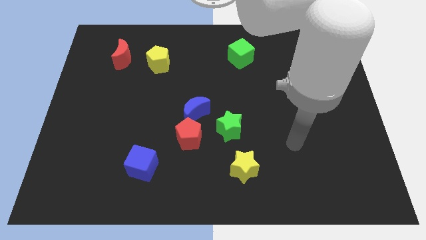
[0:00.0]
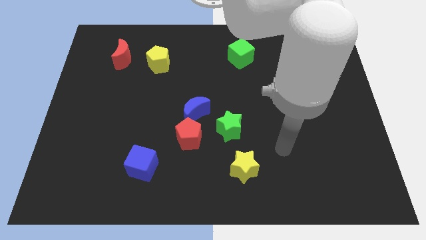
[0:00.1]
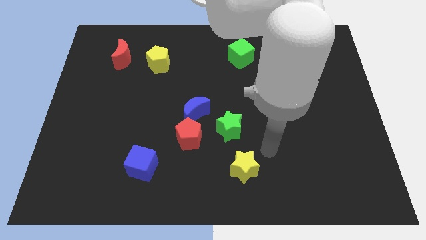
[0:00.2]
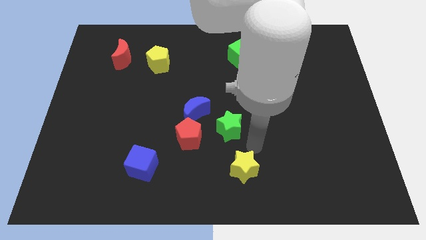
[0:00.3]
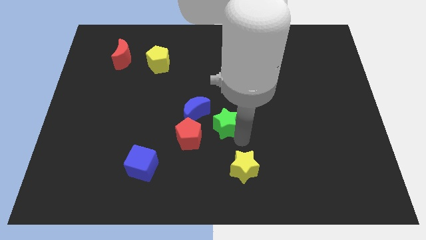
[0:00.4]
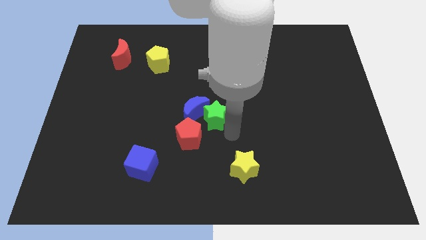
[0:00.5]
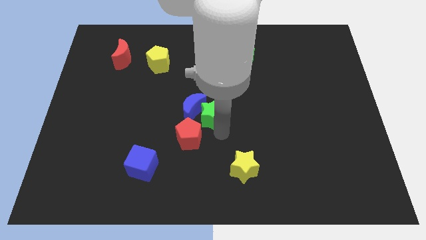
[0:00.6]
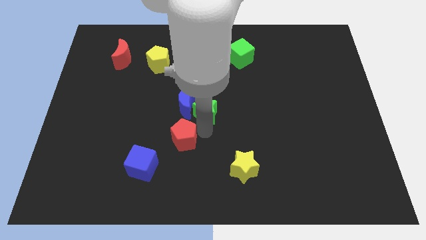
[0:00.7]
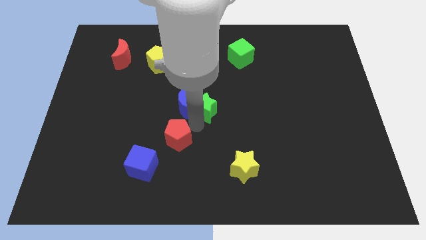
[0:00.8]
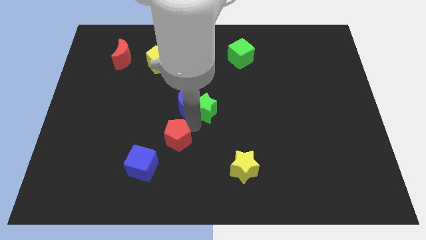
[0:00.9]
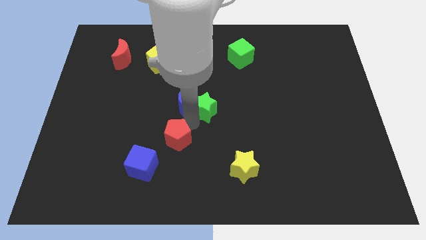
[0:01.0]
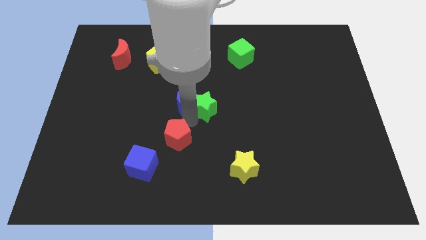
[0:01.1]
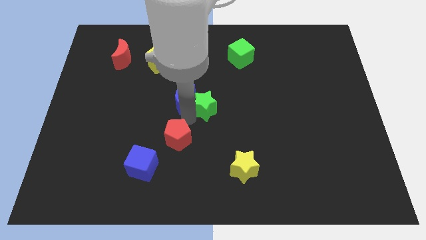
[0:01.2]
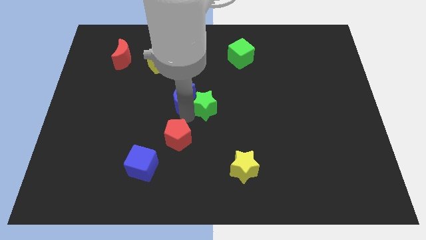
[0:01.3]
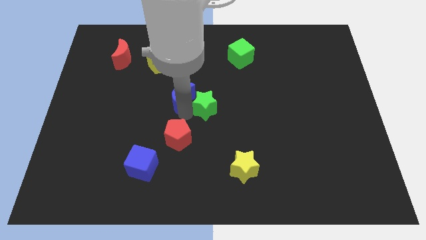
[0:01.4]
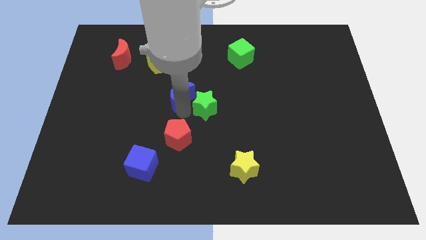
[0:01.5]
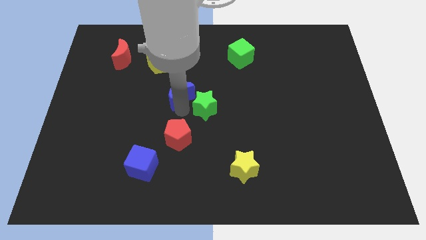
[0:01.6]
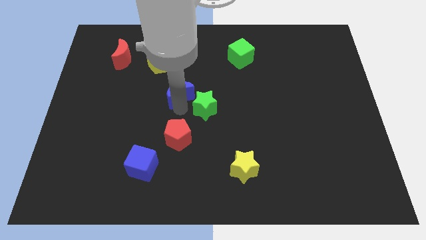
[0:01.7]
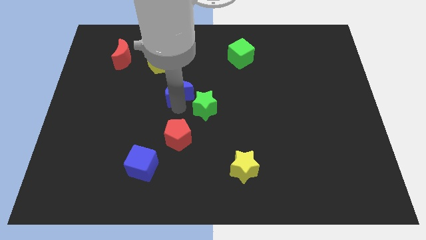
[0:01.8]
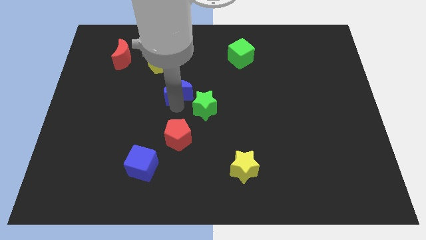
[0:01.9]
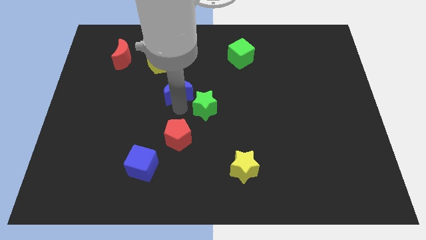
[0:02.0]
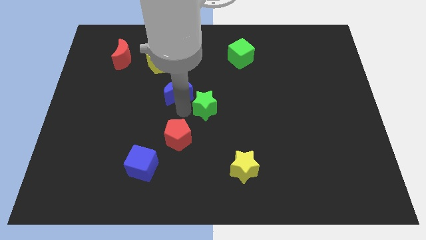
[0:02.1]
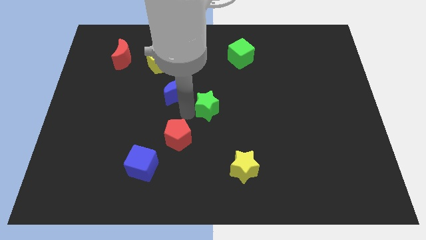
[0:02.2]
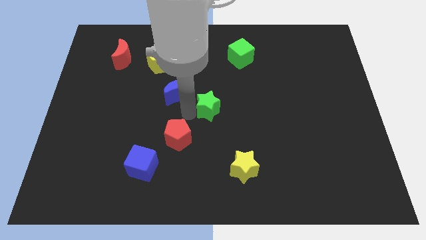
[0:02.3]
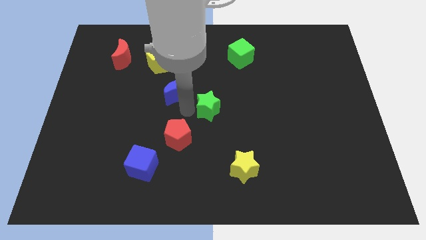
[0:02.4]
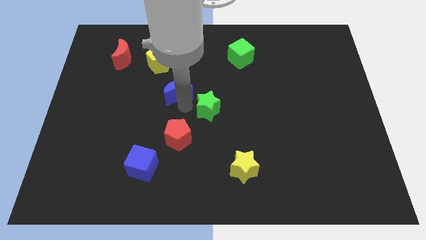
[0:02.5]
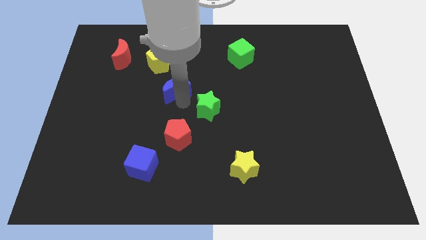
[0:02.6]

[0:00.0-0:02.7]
separate the blue moon from the red pentagon and green star

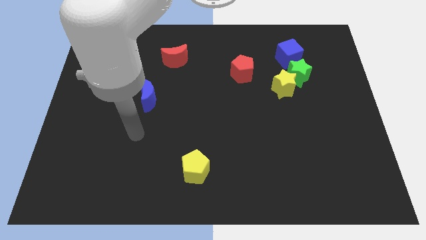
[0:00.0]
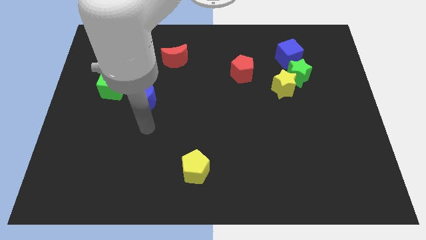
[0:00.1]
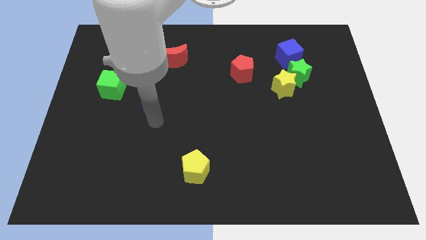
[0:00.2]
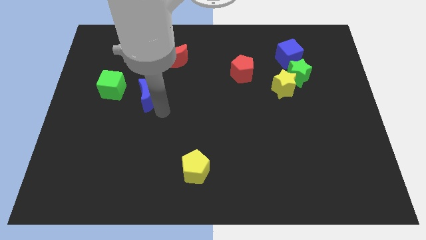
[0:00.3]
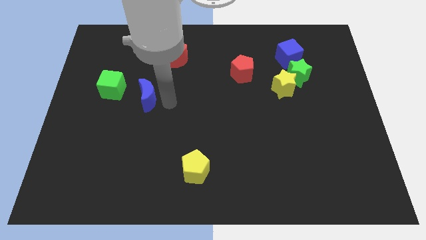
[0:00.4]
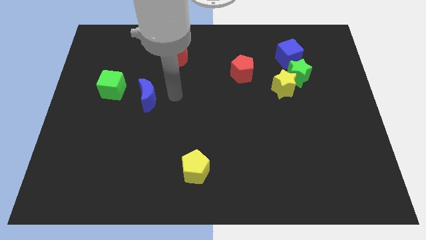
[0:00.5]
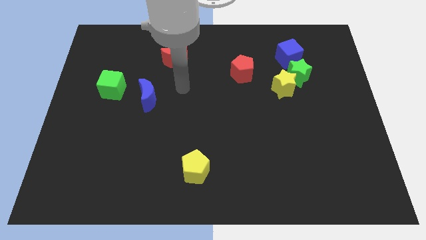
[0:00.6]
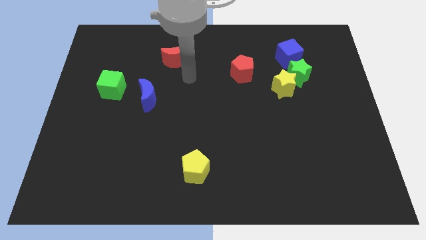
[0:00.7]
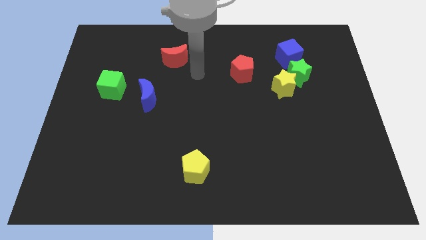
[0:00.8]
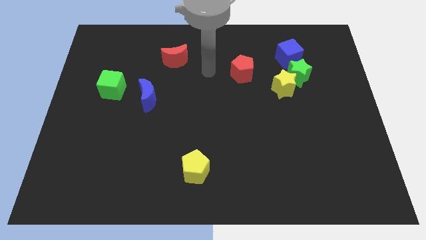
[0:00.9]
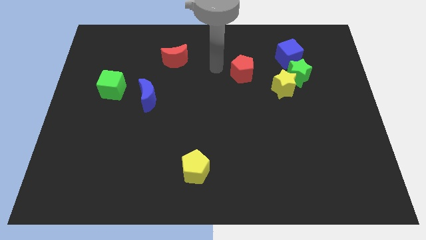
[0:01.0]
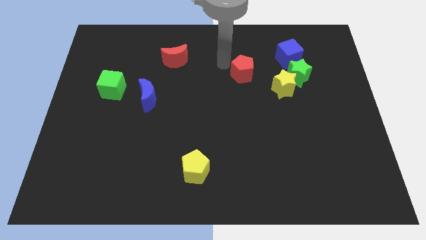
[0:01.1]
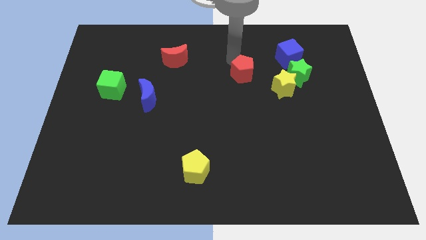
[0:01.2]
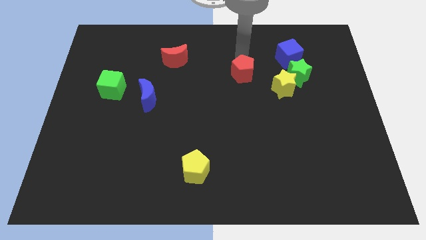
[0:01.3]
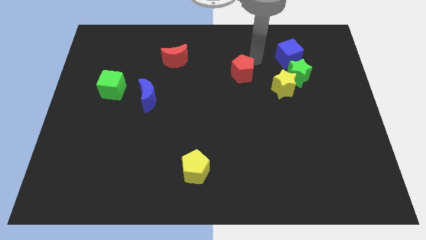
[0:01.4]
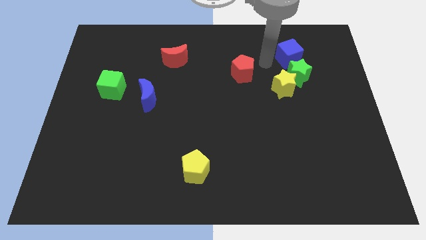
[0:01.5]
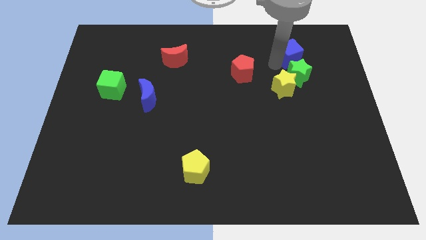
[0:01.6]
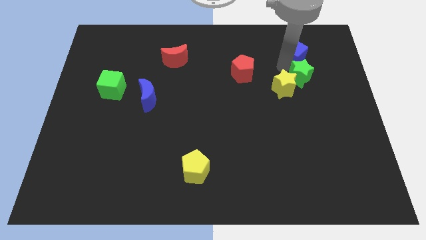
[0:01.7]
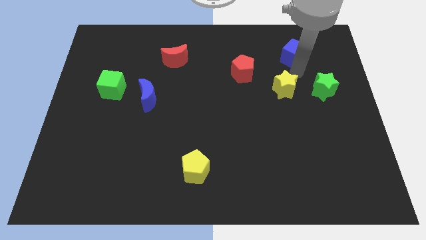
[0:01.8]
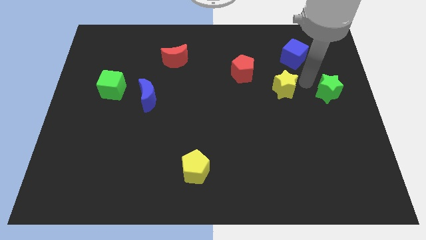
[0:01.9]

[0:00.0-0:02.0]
pull the yellow star apart from the green star

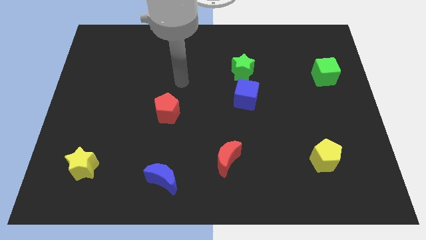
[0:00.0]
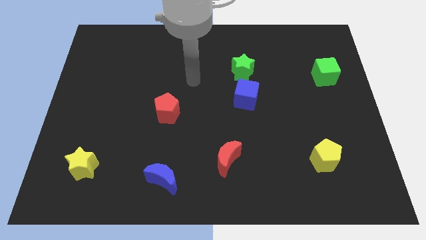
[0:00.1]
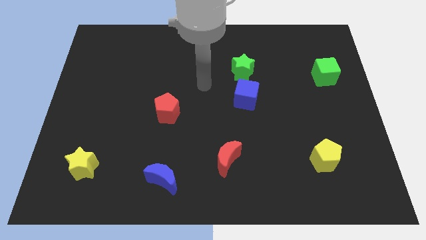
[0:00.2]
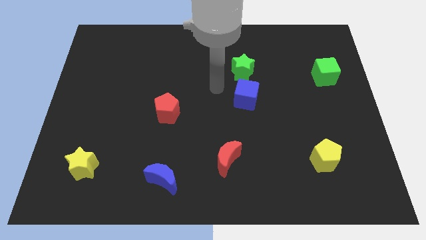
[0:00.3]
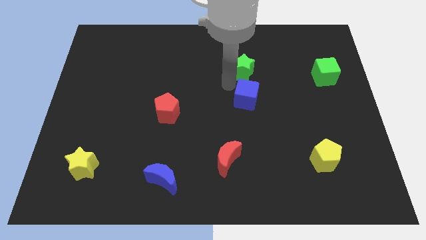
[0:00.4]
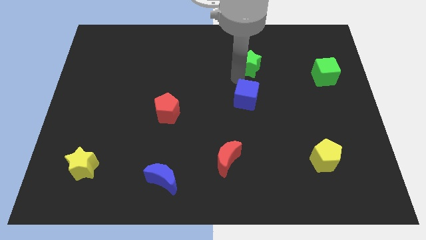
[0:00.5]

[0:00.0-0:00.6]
separate the blue cube from the green star

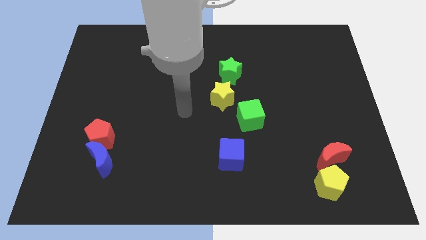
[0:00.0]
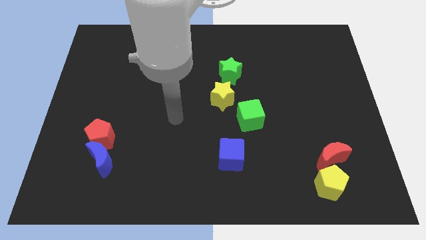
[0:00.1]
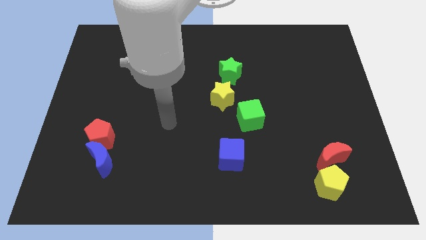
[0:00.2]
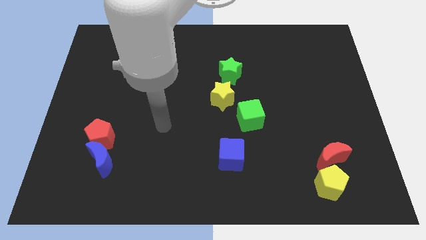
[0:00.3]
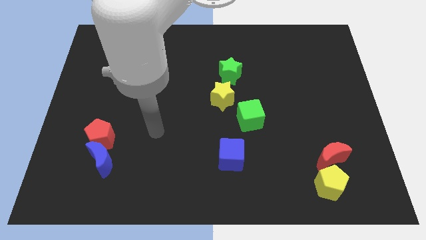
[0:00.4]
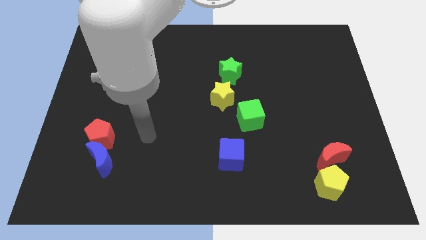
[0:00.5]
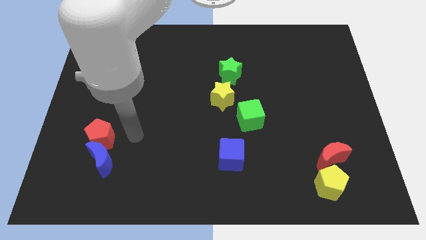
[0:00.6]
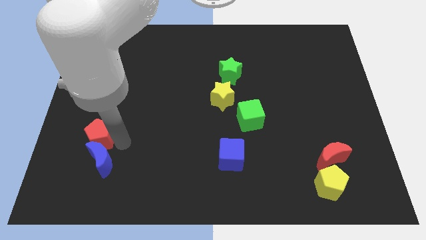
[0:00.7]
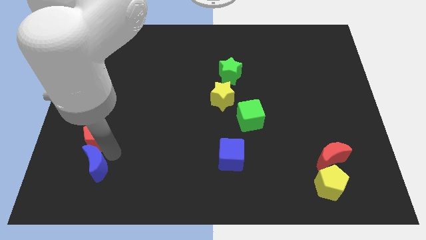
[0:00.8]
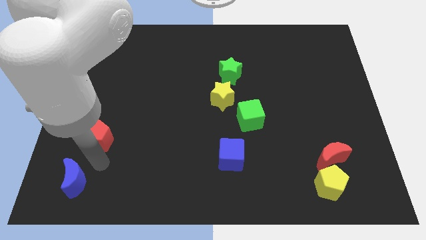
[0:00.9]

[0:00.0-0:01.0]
pull the red pentagon apart from the blue moon

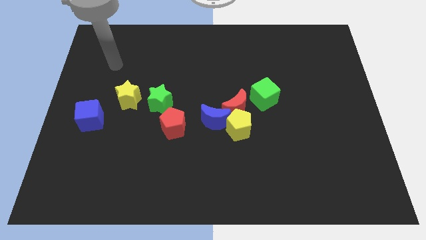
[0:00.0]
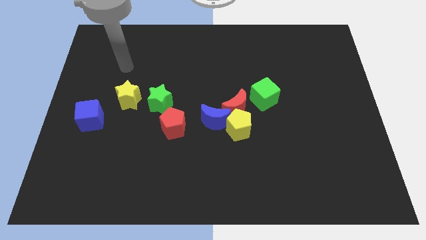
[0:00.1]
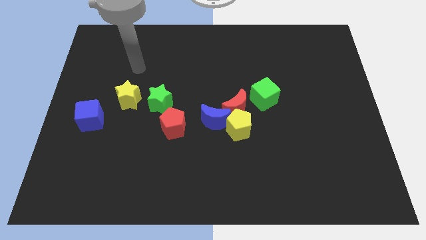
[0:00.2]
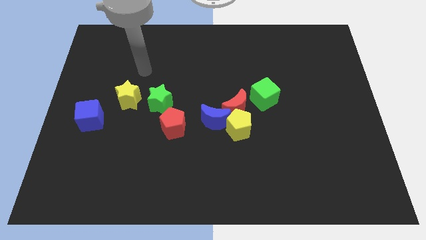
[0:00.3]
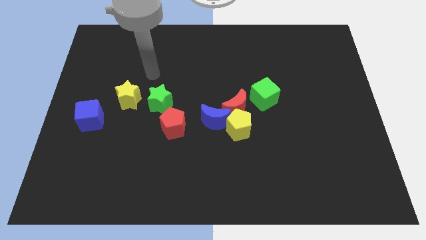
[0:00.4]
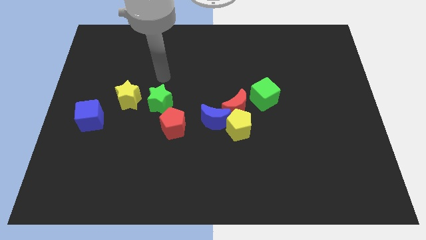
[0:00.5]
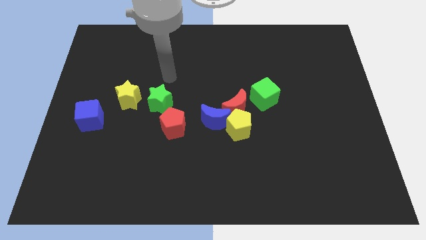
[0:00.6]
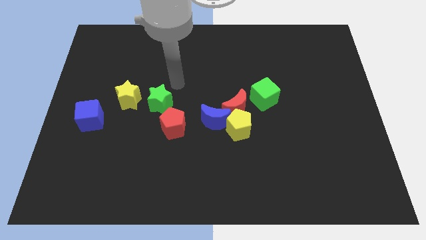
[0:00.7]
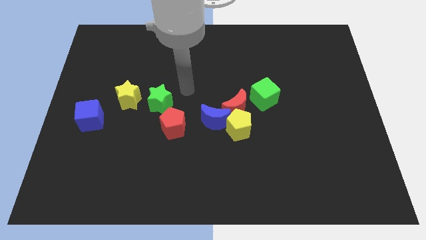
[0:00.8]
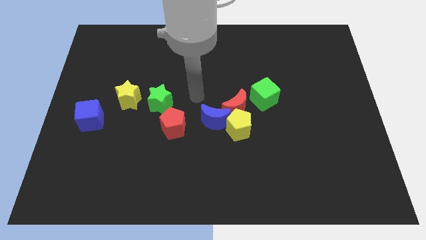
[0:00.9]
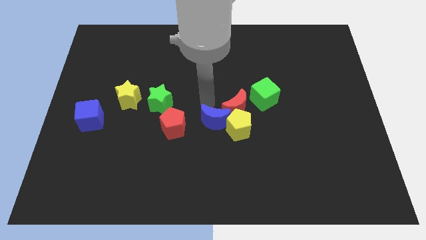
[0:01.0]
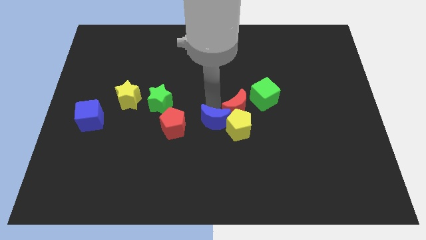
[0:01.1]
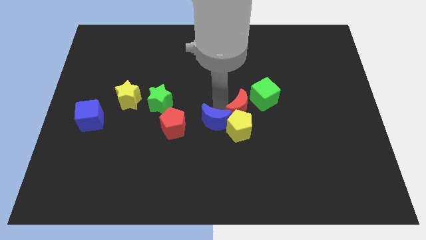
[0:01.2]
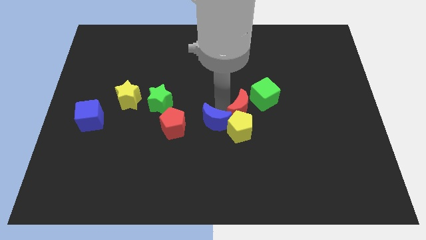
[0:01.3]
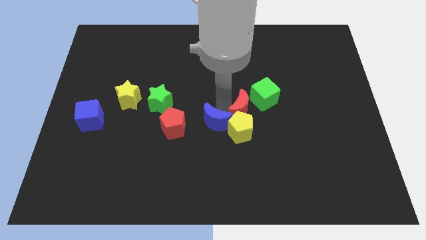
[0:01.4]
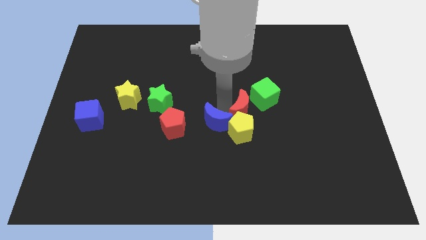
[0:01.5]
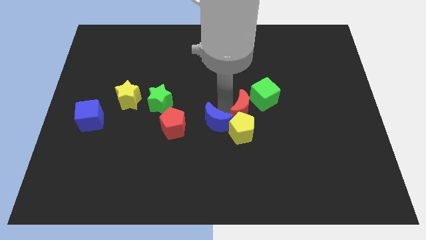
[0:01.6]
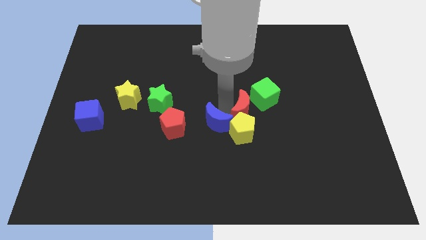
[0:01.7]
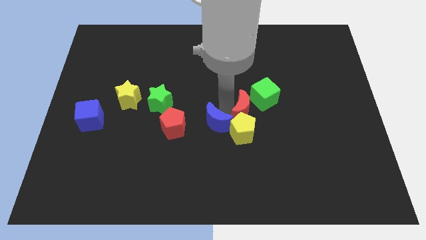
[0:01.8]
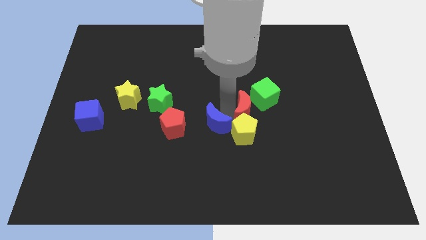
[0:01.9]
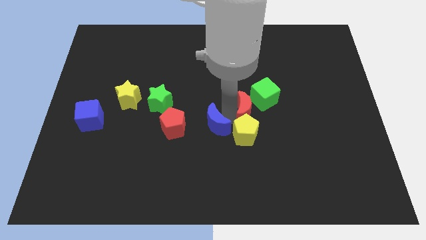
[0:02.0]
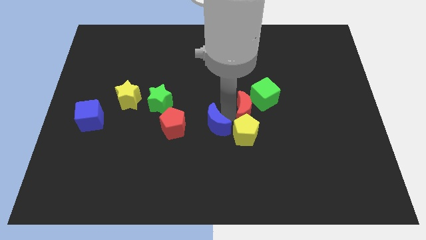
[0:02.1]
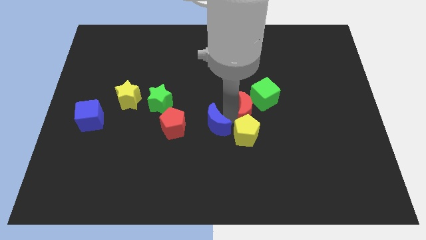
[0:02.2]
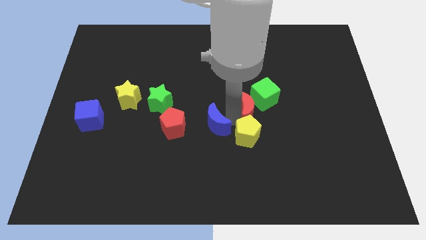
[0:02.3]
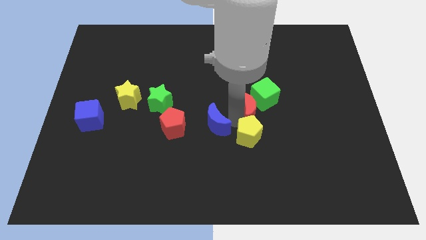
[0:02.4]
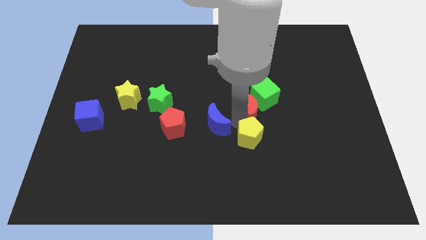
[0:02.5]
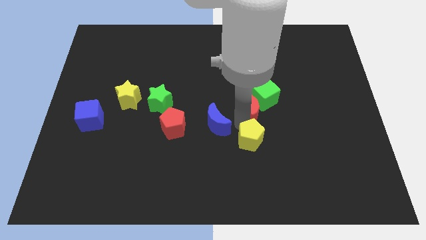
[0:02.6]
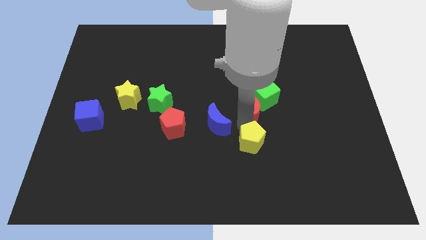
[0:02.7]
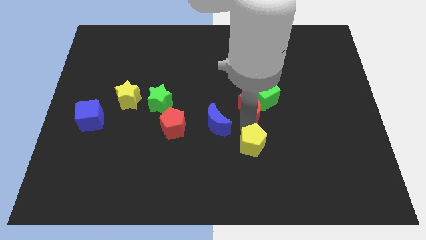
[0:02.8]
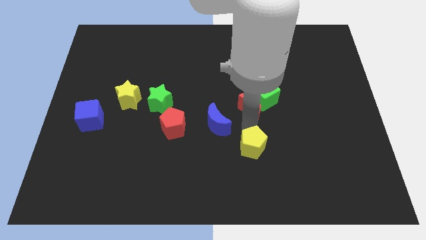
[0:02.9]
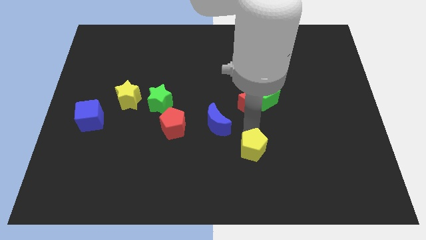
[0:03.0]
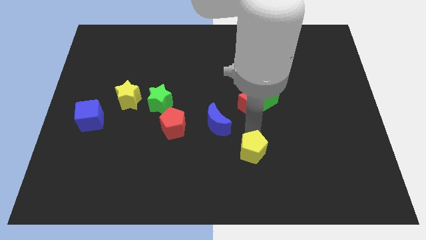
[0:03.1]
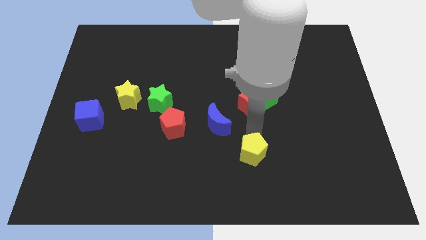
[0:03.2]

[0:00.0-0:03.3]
move the yellow pentagon away from the red moon and blue moon
